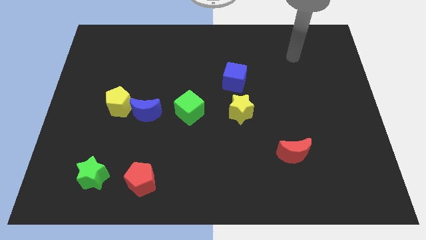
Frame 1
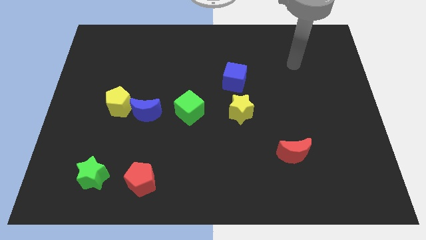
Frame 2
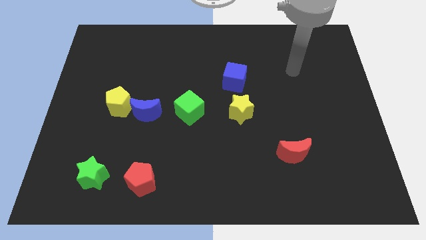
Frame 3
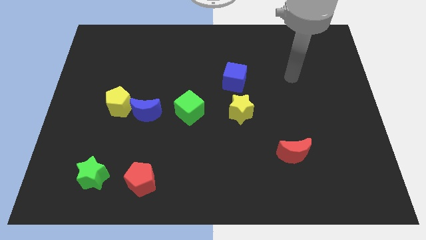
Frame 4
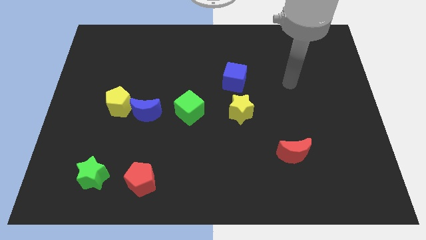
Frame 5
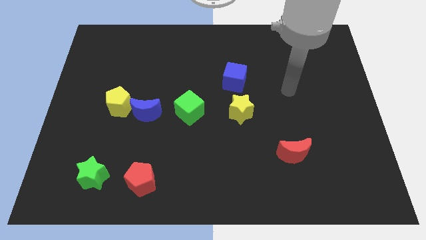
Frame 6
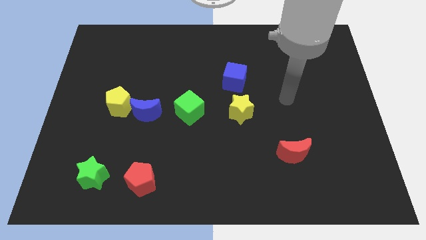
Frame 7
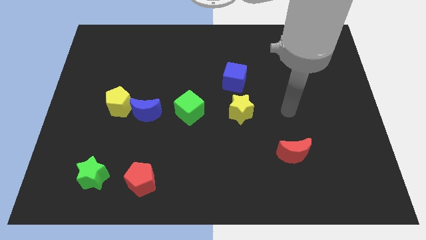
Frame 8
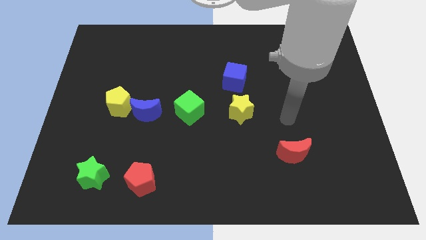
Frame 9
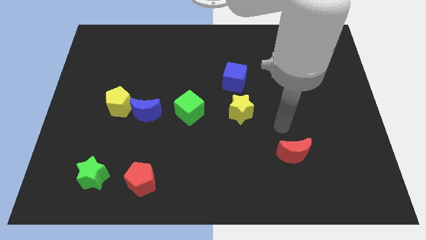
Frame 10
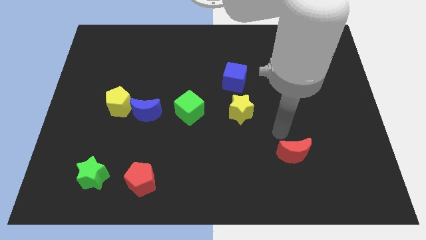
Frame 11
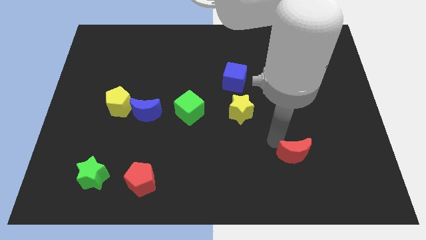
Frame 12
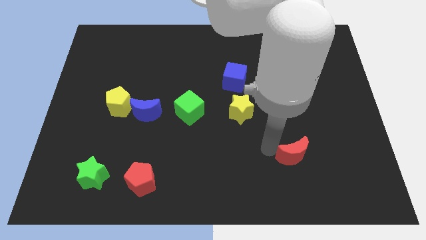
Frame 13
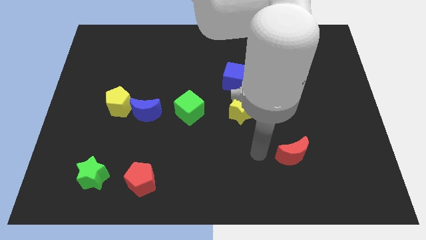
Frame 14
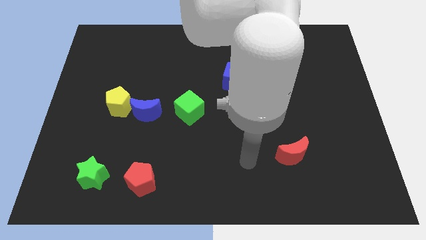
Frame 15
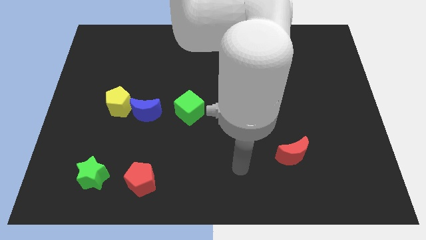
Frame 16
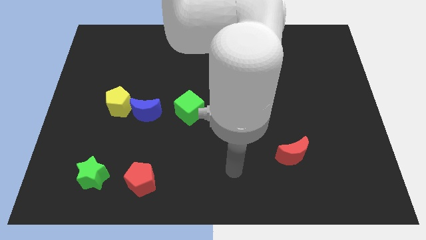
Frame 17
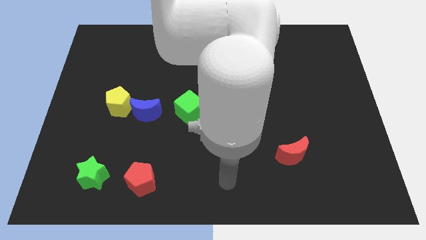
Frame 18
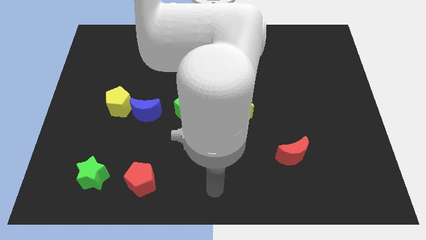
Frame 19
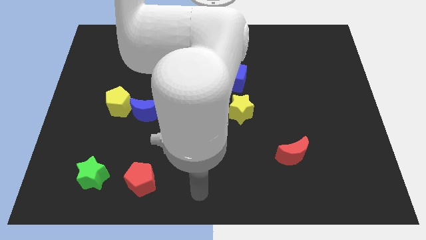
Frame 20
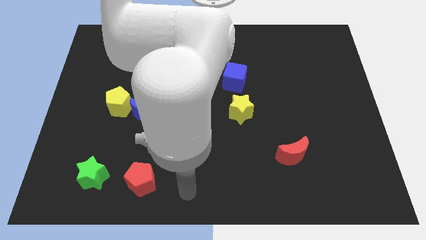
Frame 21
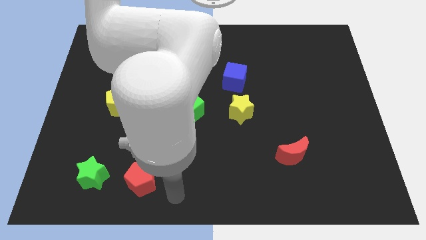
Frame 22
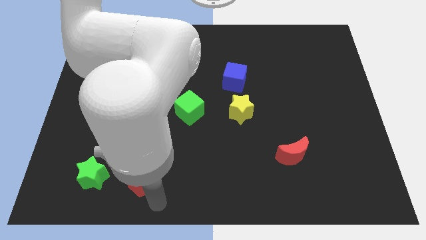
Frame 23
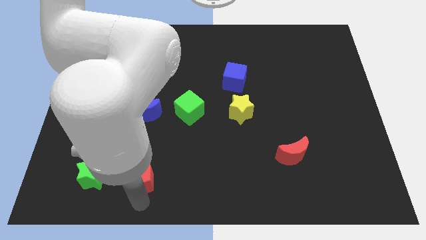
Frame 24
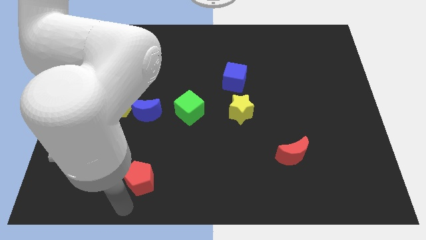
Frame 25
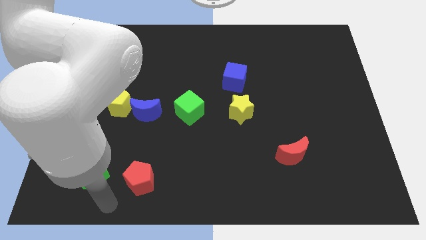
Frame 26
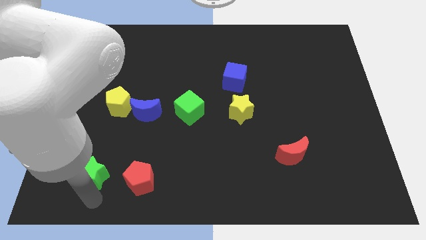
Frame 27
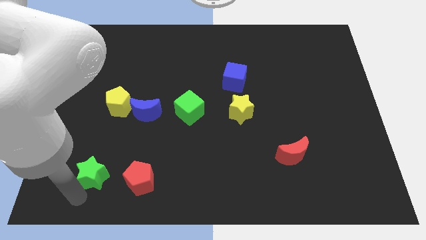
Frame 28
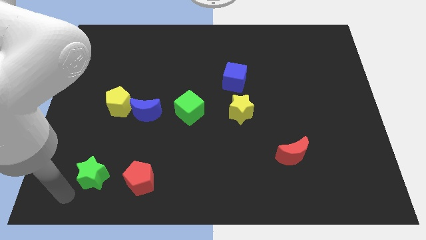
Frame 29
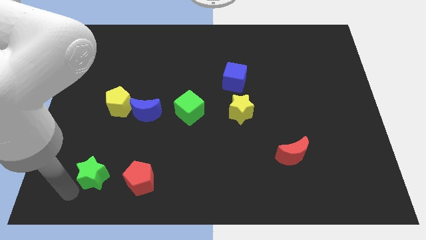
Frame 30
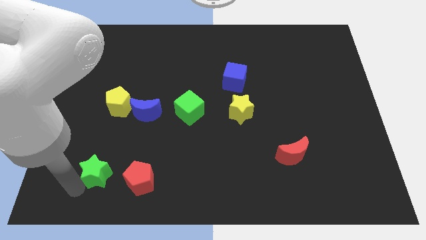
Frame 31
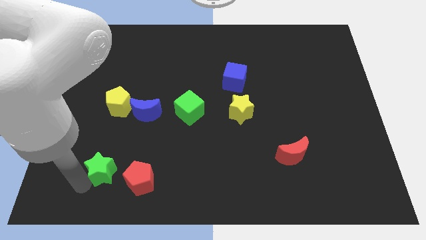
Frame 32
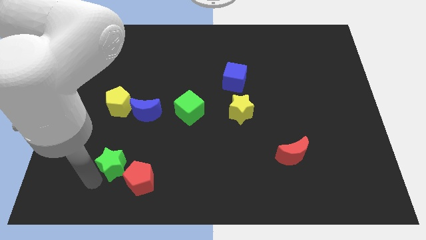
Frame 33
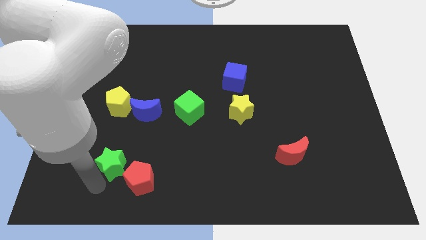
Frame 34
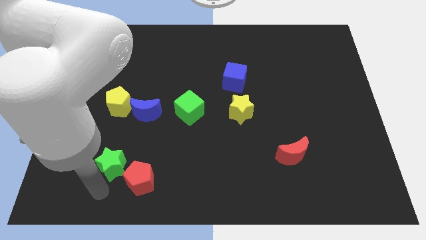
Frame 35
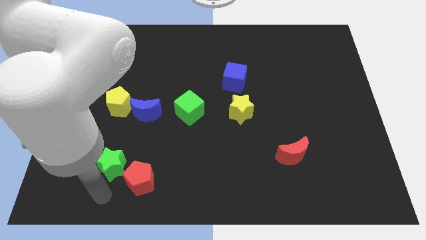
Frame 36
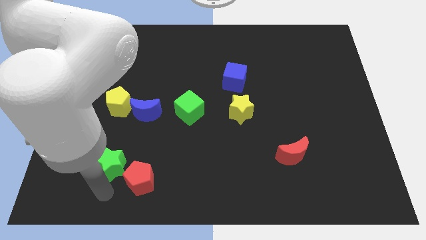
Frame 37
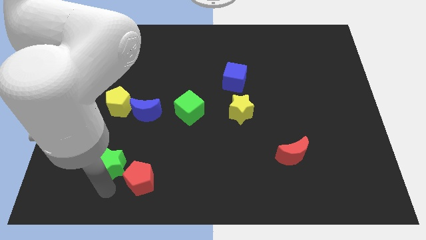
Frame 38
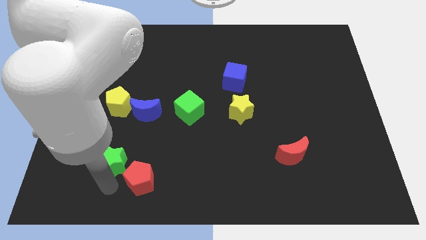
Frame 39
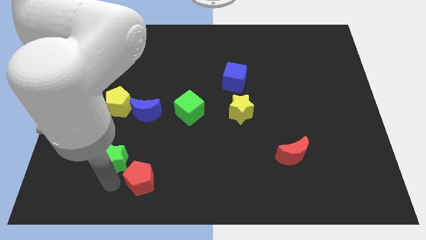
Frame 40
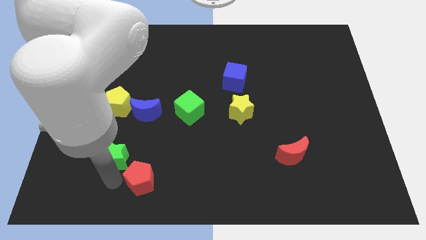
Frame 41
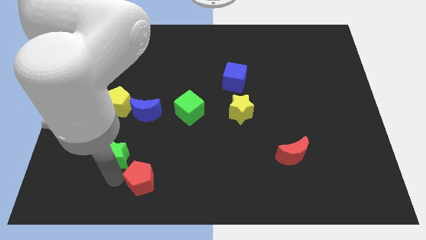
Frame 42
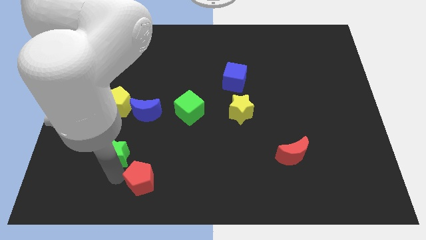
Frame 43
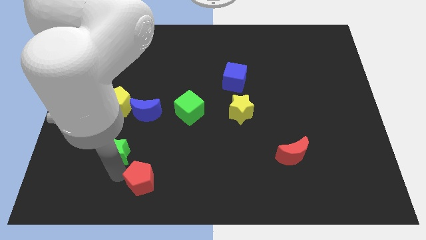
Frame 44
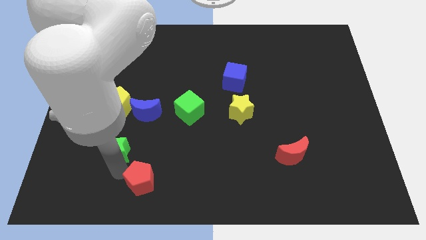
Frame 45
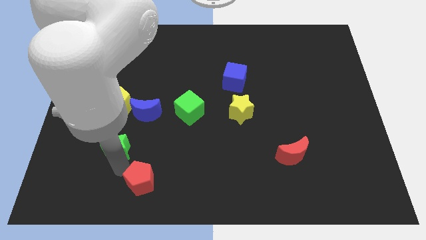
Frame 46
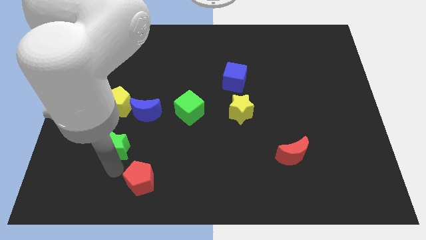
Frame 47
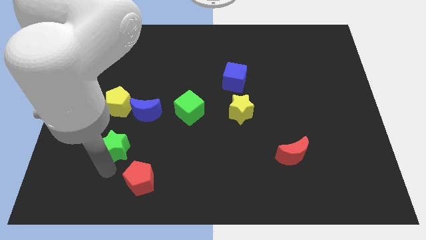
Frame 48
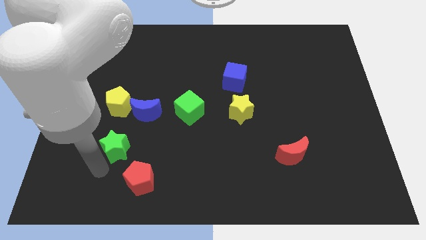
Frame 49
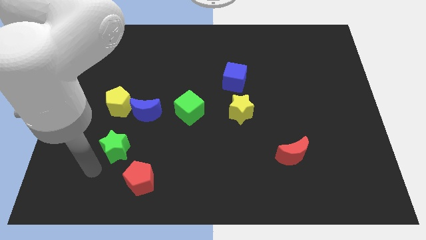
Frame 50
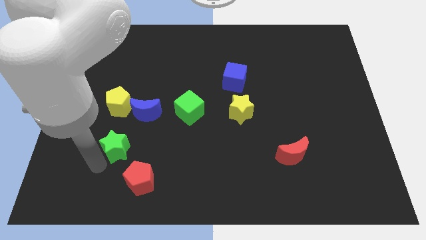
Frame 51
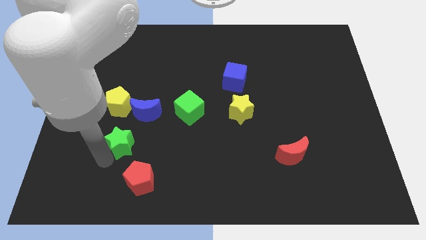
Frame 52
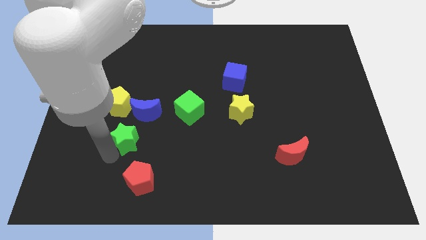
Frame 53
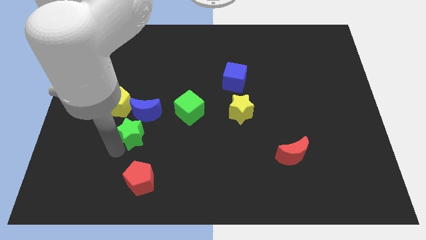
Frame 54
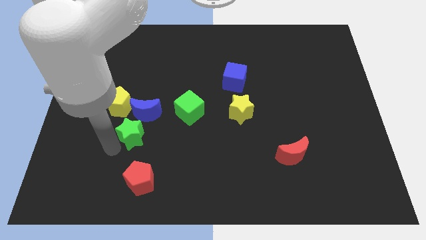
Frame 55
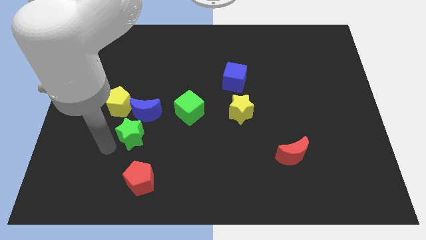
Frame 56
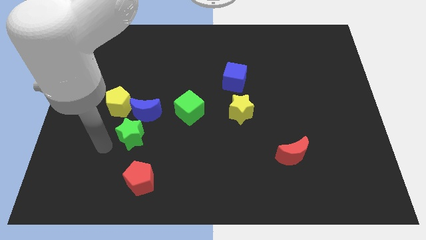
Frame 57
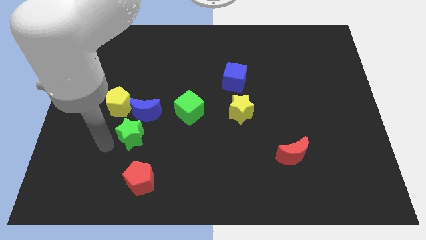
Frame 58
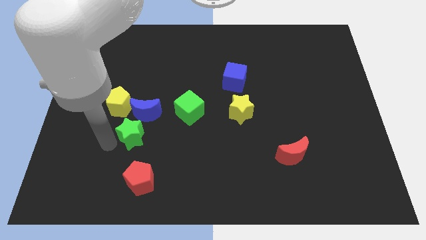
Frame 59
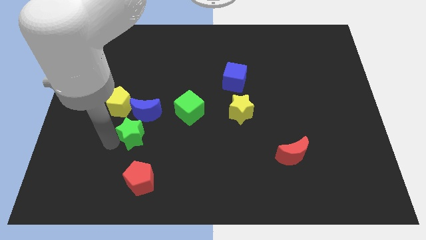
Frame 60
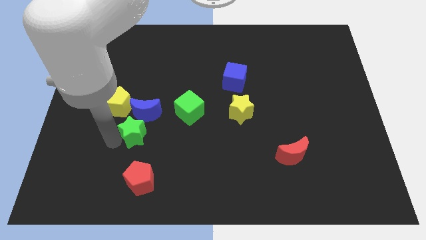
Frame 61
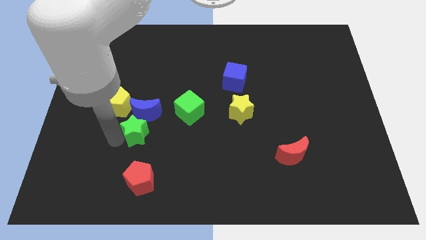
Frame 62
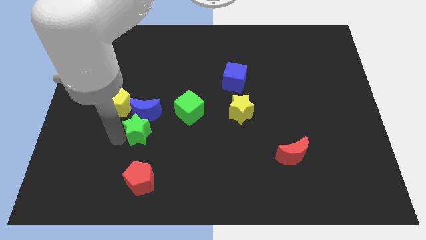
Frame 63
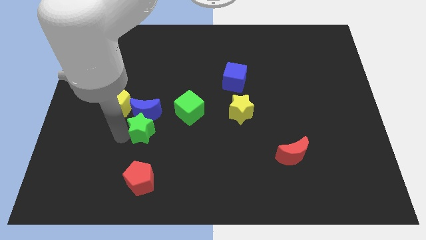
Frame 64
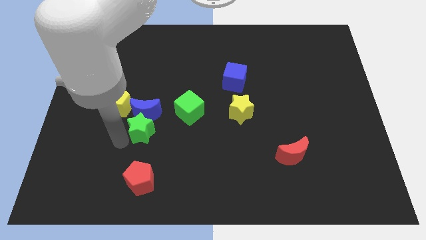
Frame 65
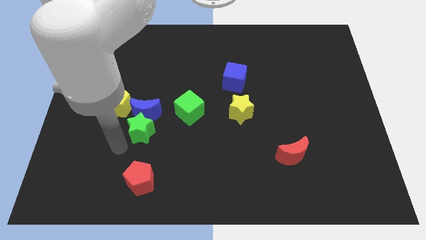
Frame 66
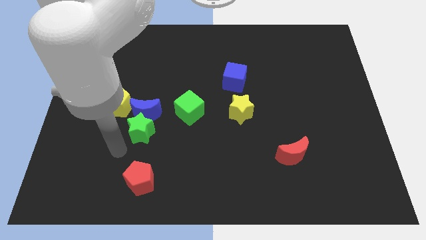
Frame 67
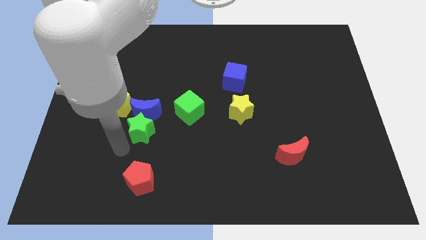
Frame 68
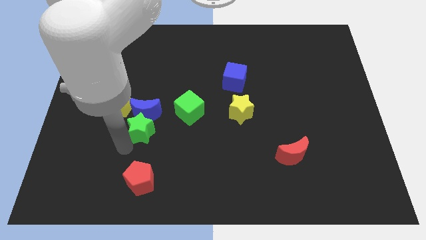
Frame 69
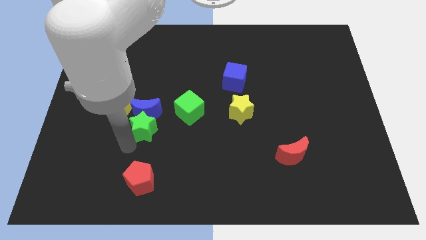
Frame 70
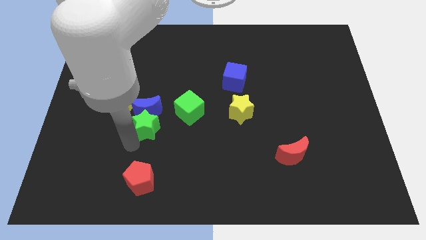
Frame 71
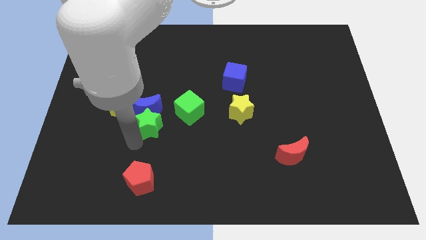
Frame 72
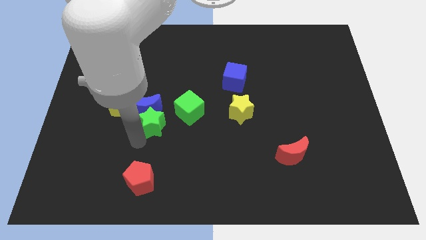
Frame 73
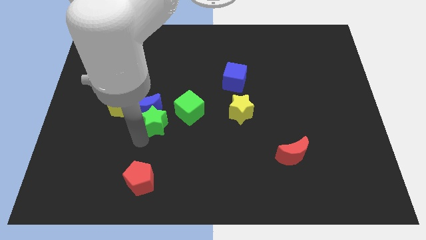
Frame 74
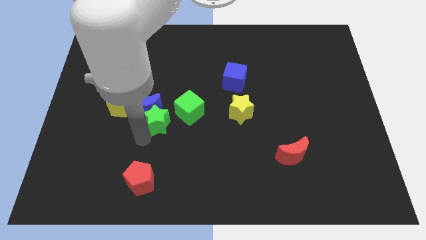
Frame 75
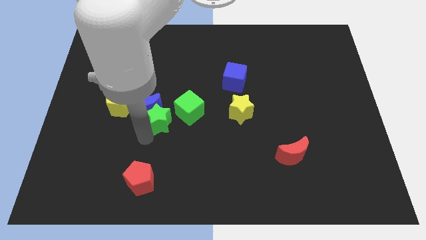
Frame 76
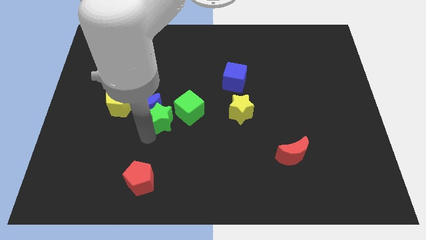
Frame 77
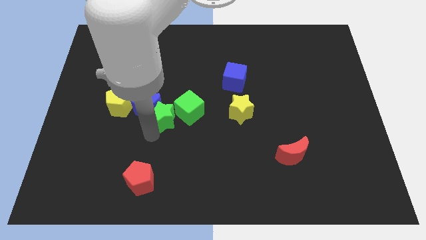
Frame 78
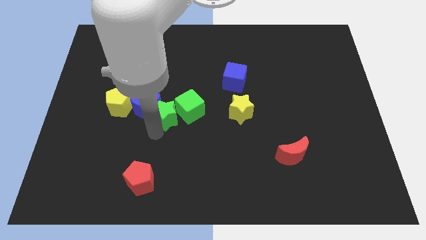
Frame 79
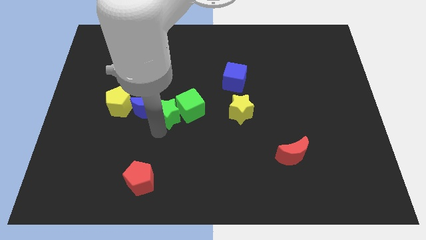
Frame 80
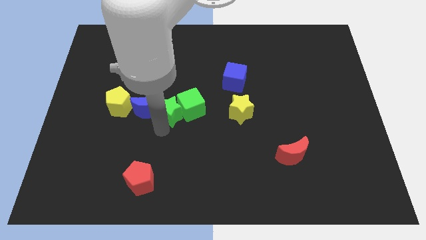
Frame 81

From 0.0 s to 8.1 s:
slide the green star diagonally up and to the right of the blue moon
